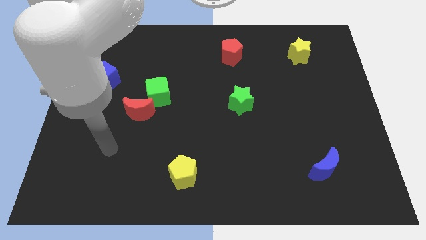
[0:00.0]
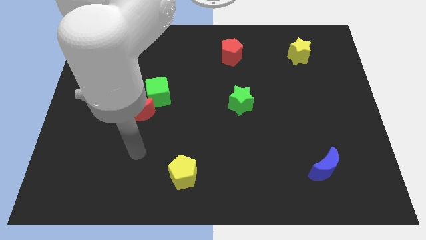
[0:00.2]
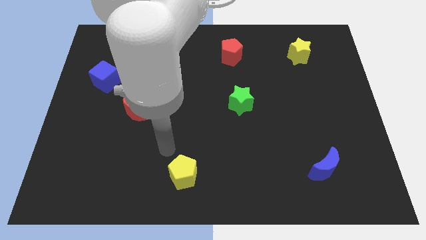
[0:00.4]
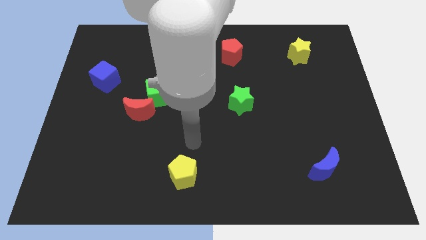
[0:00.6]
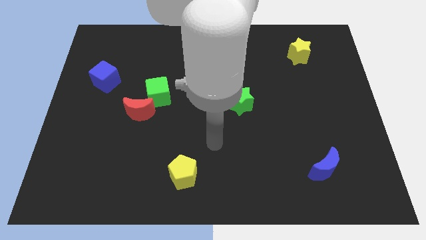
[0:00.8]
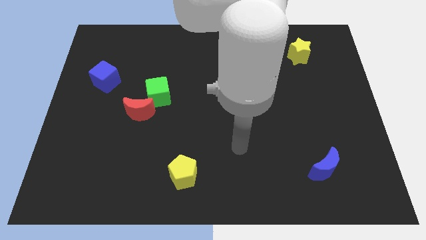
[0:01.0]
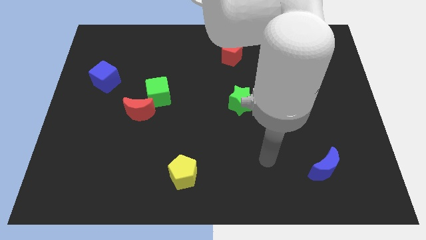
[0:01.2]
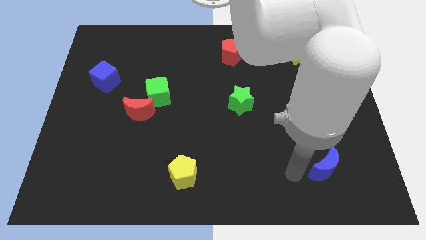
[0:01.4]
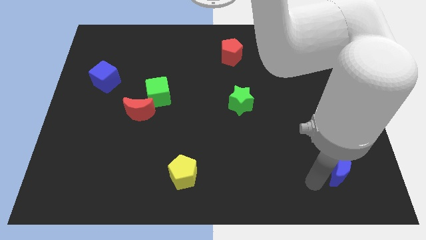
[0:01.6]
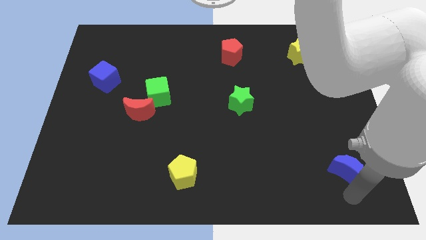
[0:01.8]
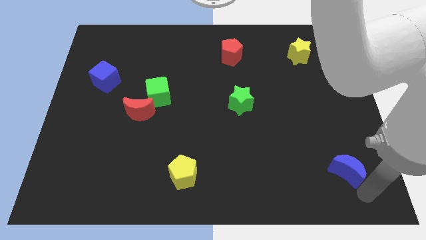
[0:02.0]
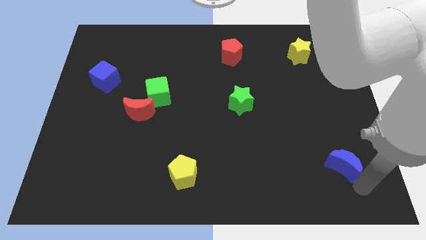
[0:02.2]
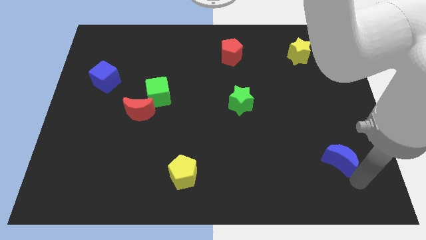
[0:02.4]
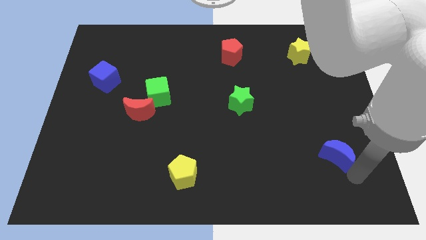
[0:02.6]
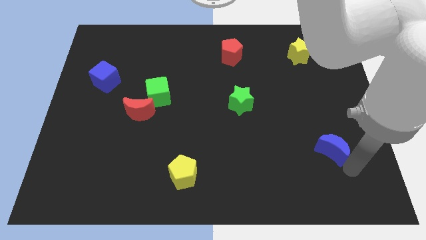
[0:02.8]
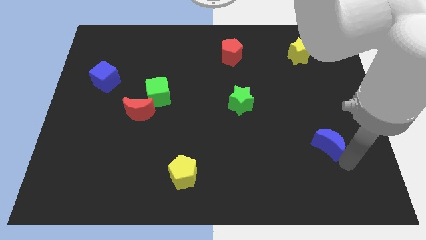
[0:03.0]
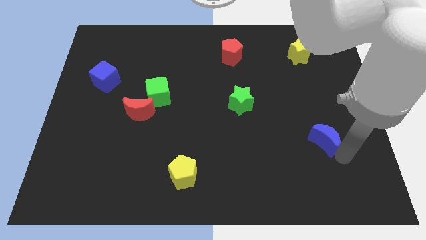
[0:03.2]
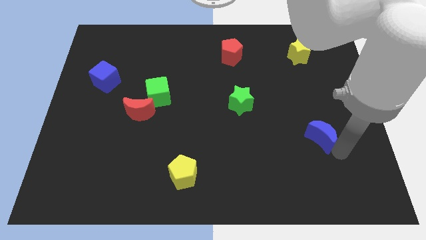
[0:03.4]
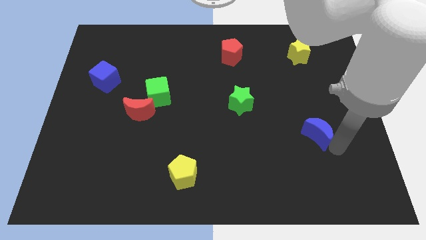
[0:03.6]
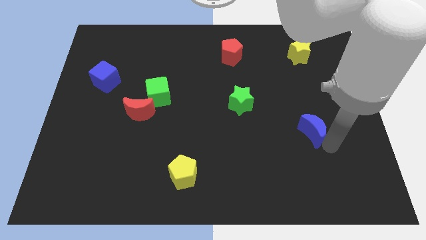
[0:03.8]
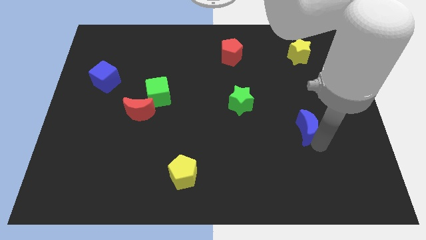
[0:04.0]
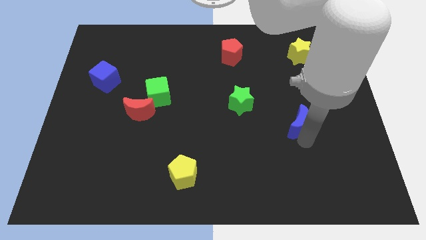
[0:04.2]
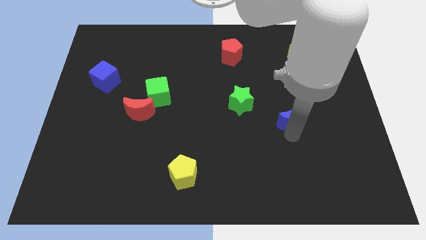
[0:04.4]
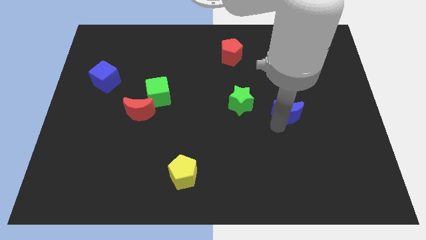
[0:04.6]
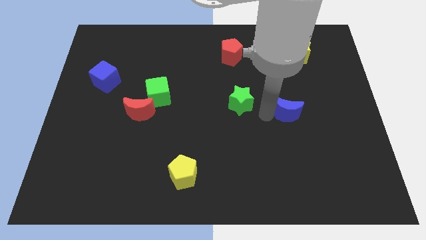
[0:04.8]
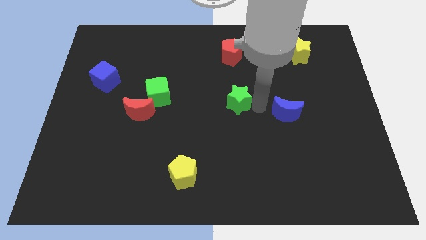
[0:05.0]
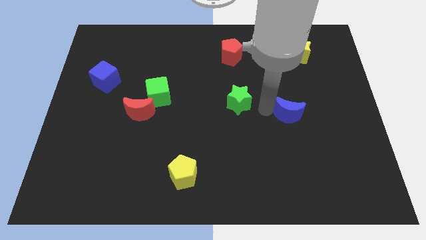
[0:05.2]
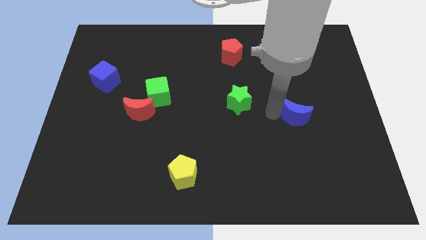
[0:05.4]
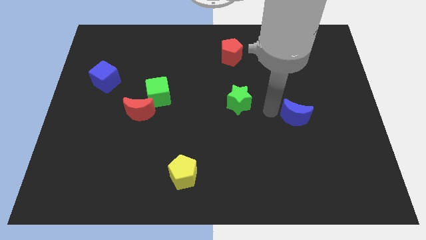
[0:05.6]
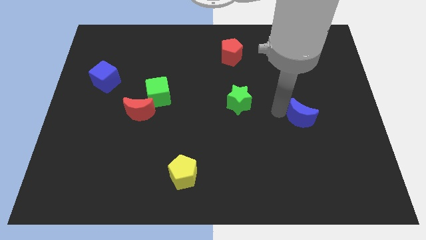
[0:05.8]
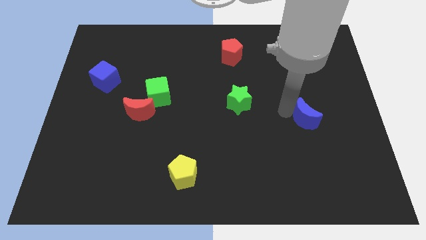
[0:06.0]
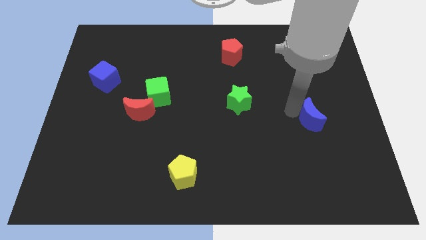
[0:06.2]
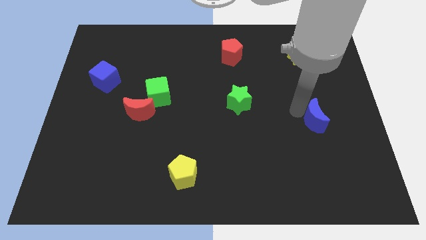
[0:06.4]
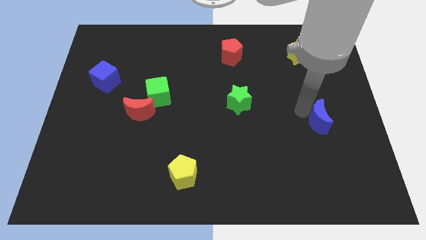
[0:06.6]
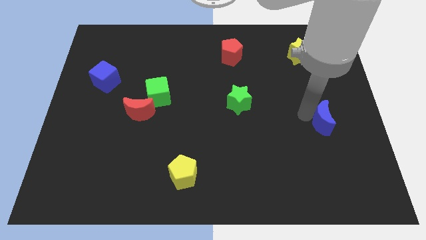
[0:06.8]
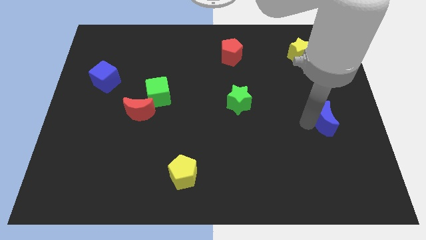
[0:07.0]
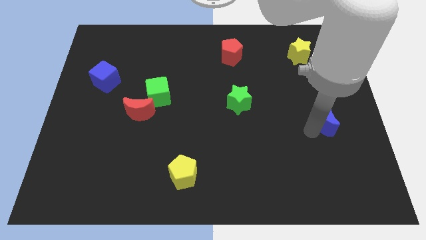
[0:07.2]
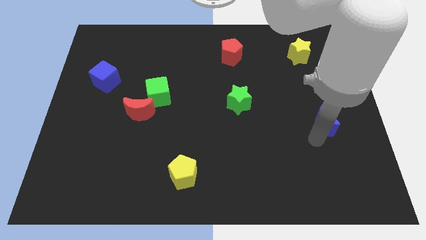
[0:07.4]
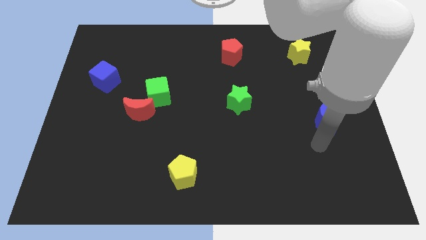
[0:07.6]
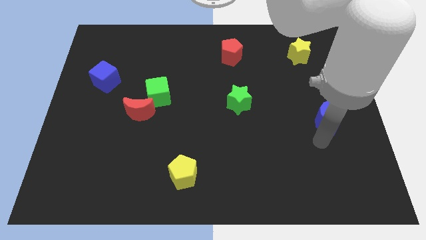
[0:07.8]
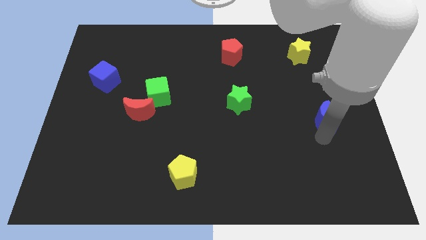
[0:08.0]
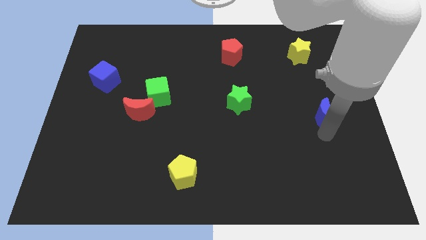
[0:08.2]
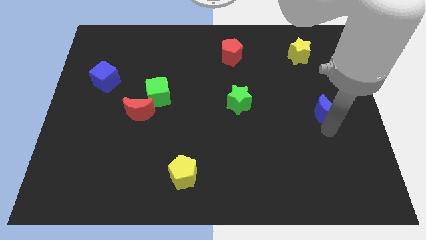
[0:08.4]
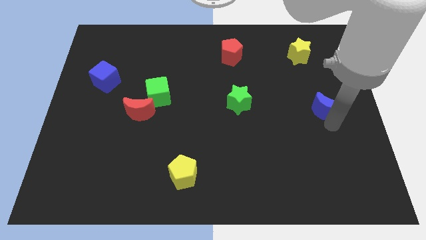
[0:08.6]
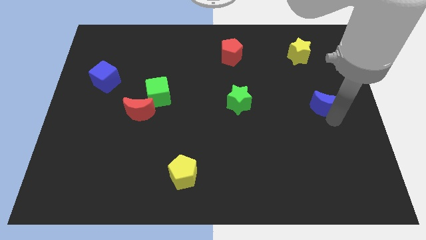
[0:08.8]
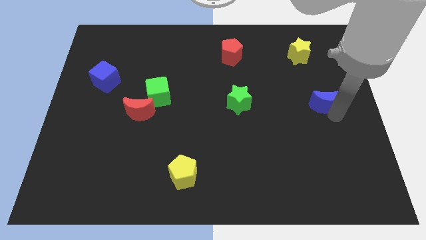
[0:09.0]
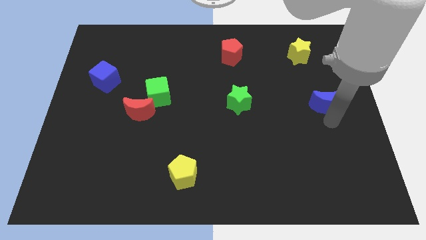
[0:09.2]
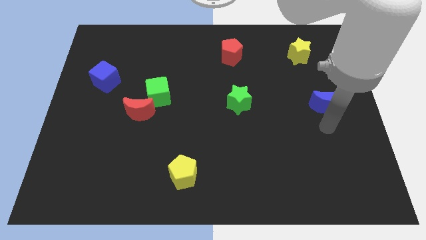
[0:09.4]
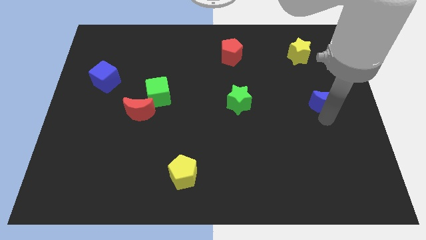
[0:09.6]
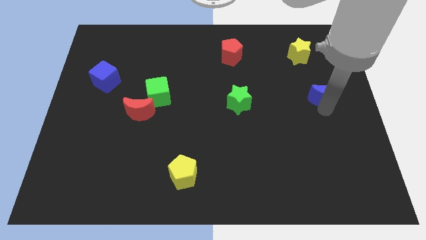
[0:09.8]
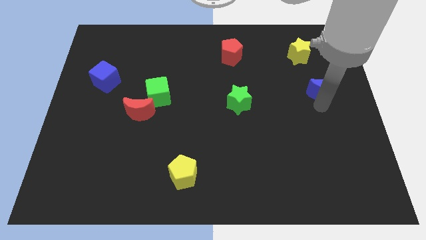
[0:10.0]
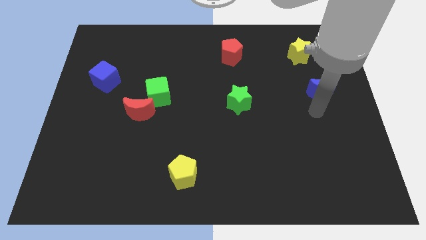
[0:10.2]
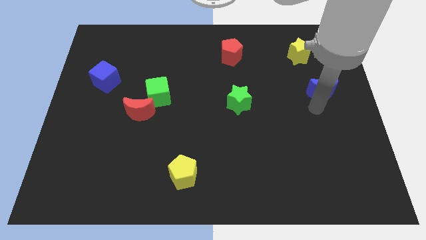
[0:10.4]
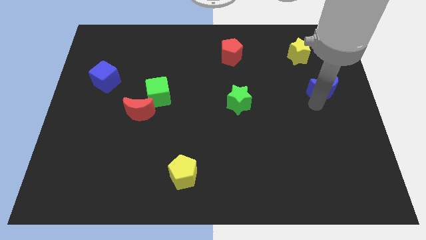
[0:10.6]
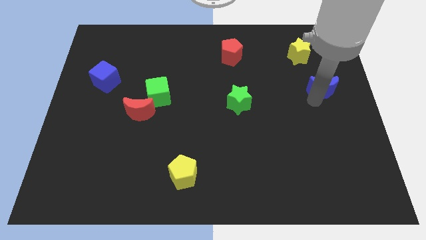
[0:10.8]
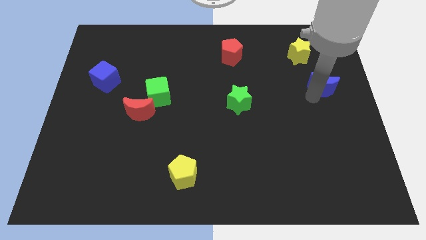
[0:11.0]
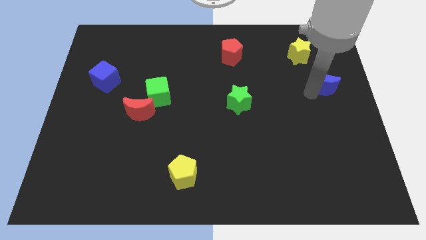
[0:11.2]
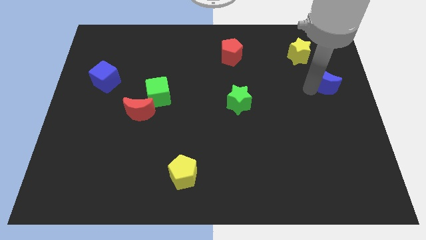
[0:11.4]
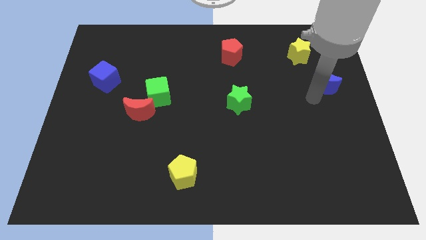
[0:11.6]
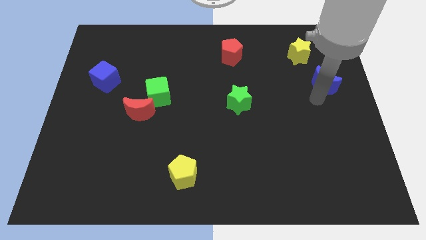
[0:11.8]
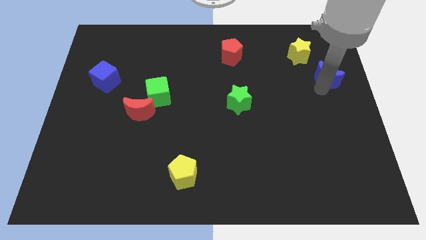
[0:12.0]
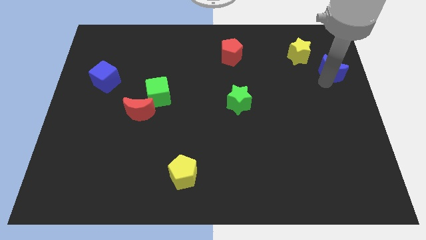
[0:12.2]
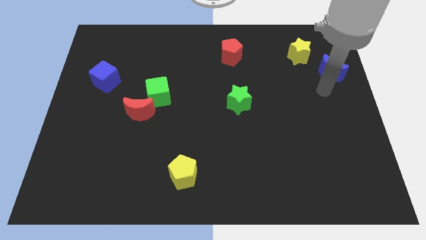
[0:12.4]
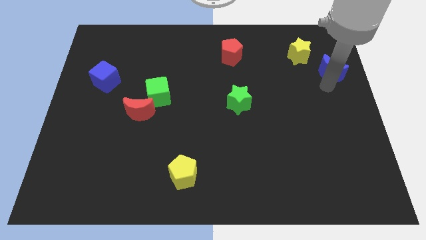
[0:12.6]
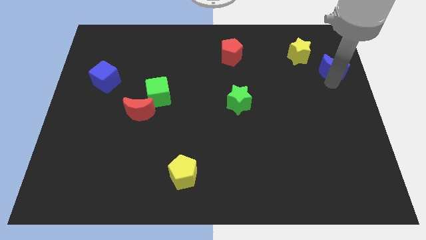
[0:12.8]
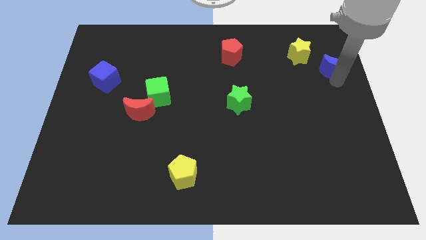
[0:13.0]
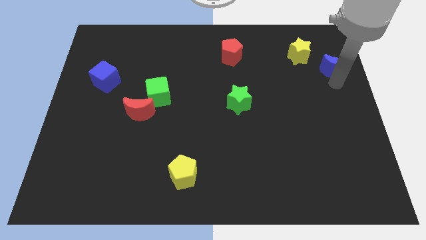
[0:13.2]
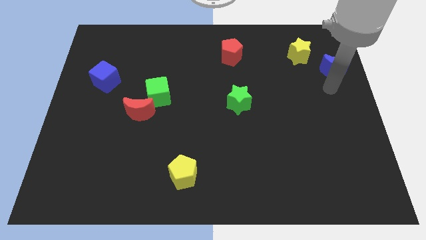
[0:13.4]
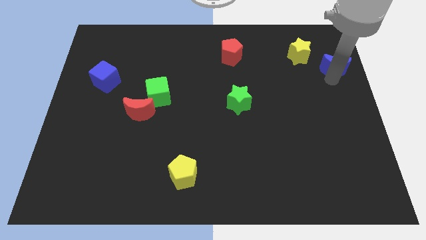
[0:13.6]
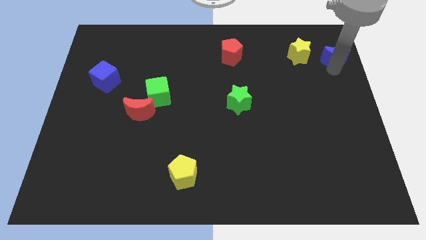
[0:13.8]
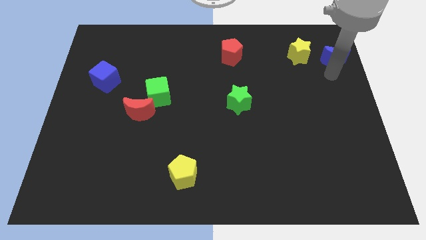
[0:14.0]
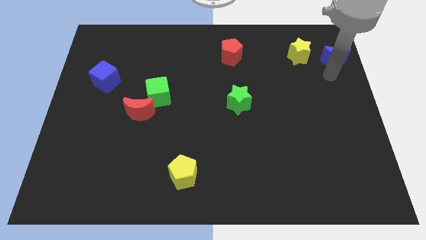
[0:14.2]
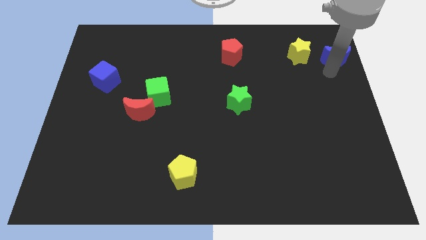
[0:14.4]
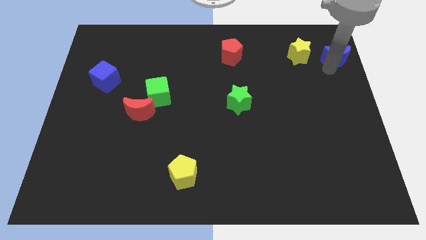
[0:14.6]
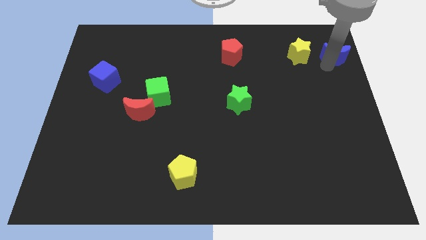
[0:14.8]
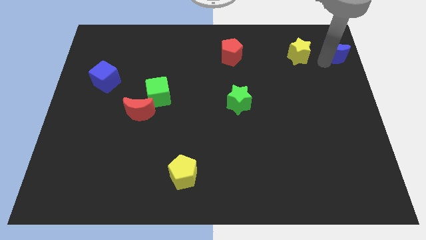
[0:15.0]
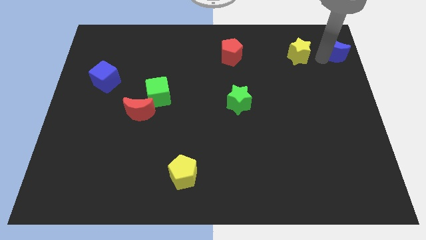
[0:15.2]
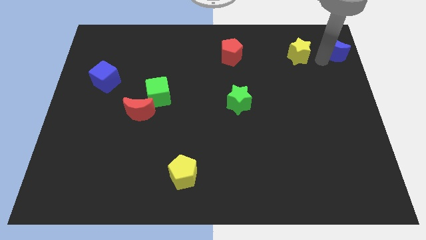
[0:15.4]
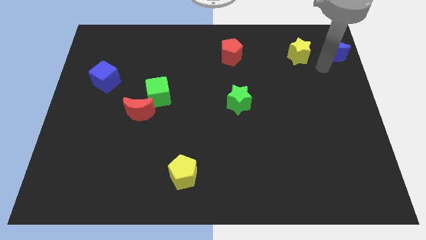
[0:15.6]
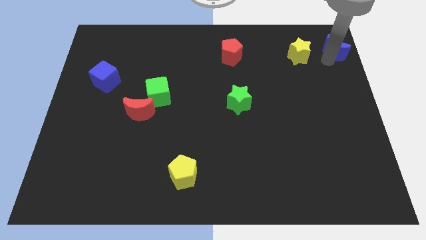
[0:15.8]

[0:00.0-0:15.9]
push the blue moon to the upper right corner
